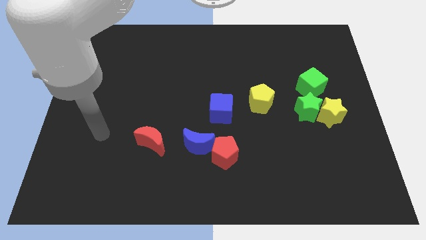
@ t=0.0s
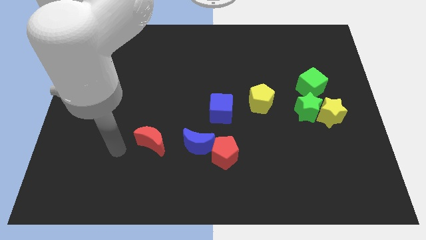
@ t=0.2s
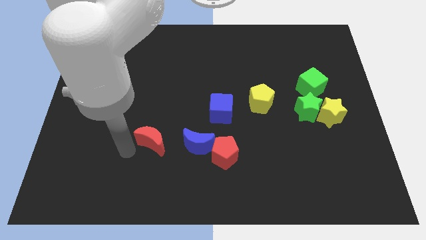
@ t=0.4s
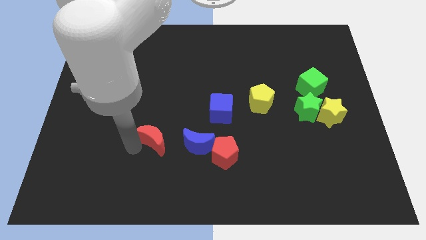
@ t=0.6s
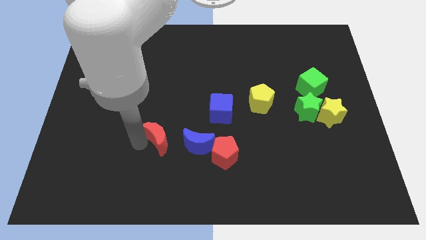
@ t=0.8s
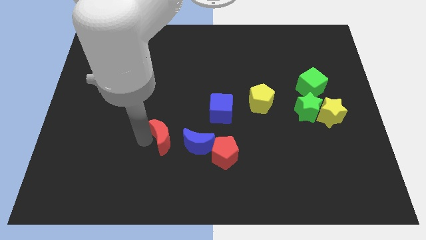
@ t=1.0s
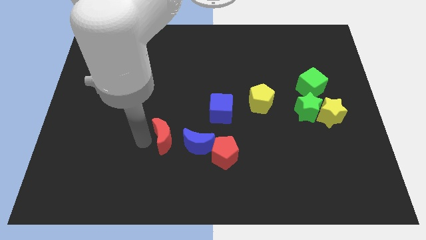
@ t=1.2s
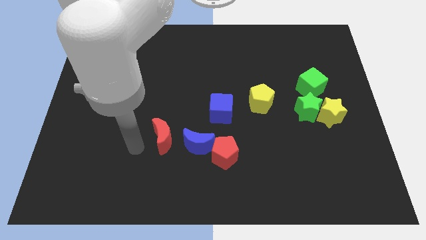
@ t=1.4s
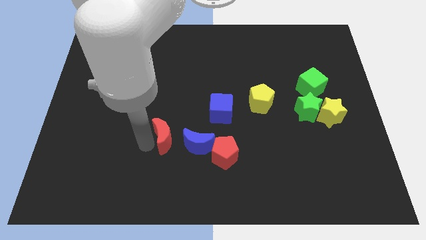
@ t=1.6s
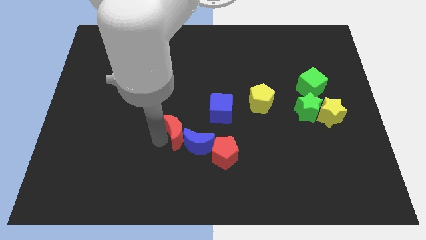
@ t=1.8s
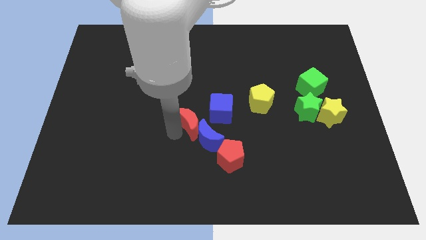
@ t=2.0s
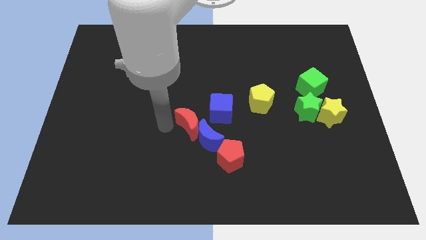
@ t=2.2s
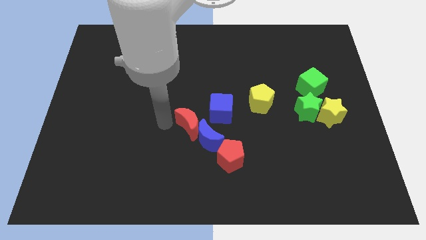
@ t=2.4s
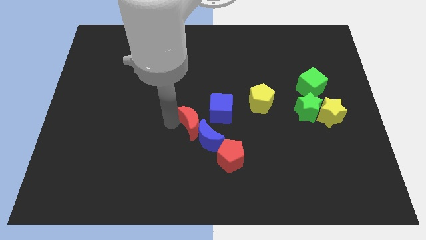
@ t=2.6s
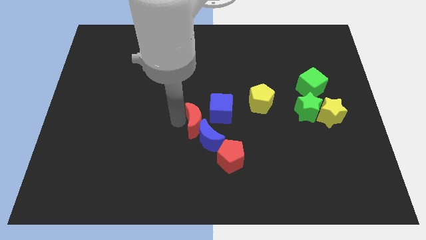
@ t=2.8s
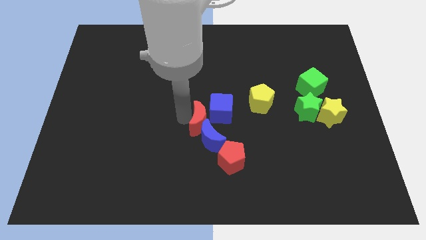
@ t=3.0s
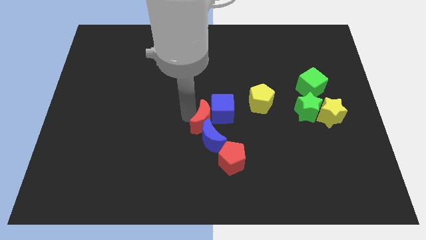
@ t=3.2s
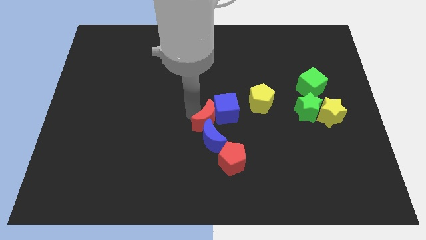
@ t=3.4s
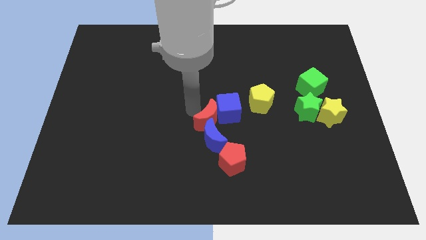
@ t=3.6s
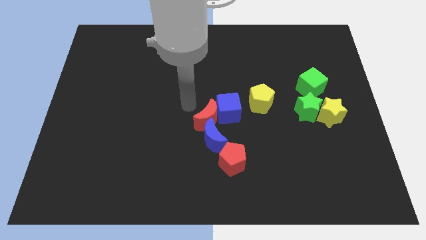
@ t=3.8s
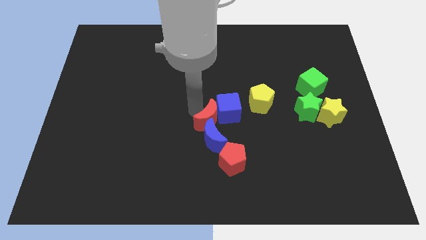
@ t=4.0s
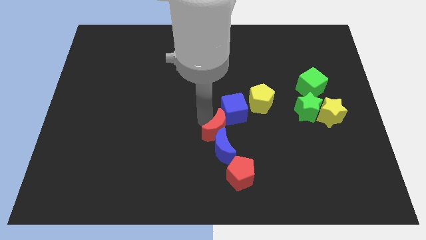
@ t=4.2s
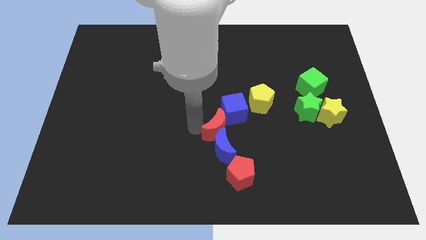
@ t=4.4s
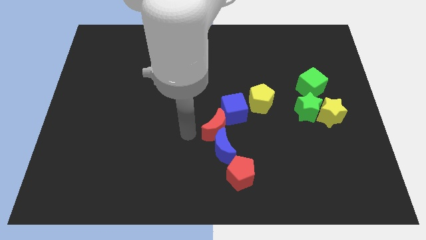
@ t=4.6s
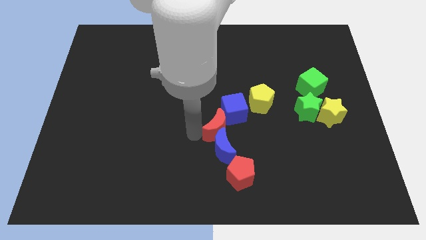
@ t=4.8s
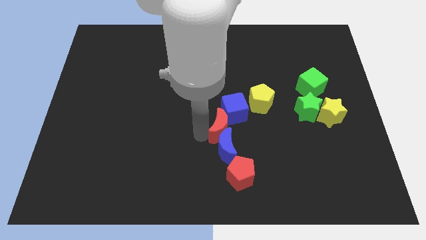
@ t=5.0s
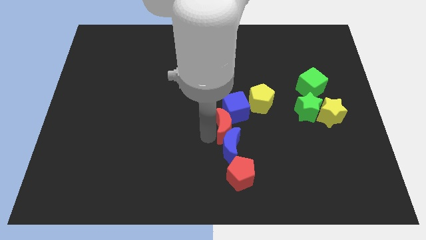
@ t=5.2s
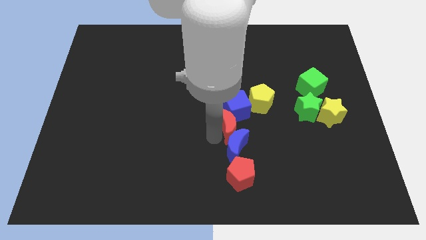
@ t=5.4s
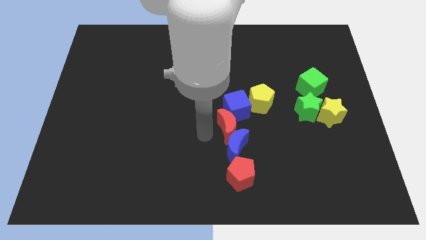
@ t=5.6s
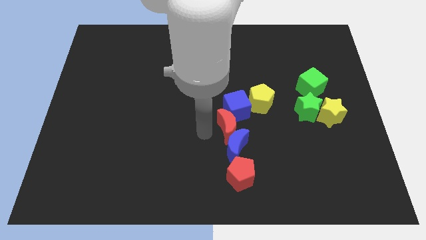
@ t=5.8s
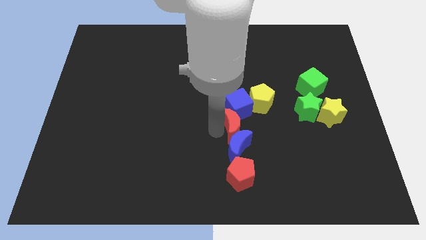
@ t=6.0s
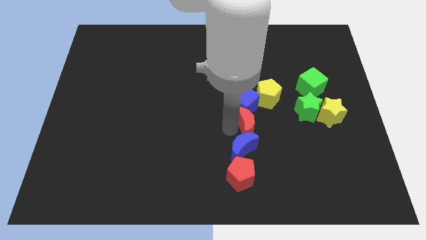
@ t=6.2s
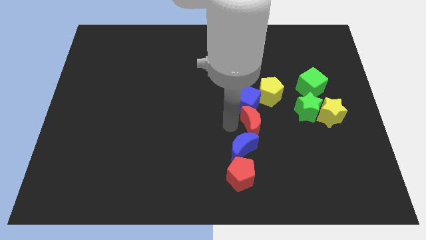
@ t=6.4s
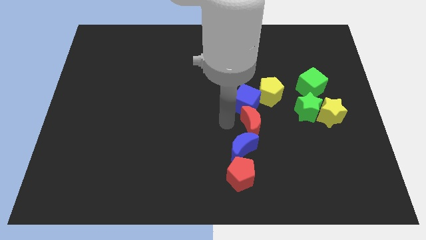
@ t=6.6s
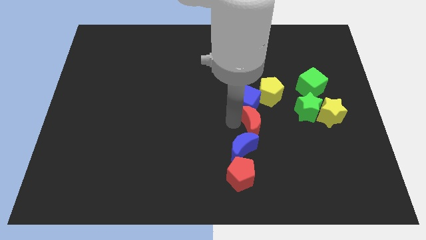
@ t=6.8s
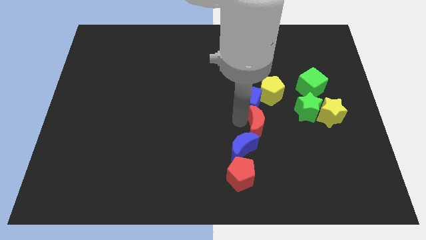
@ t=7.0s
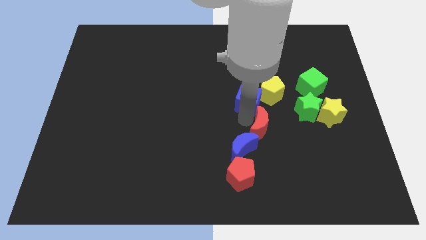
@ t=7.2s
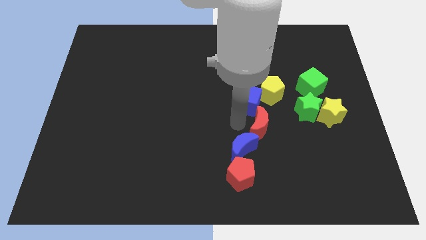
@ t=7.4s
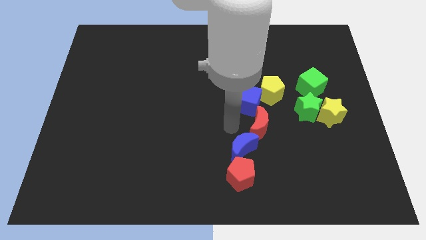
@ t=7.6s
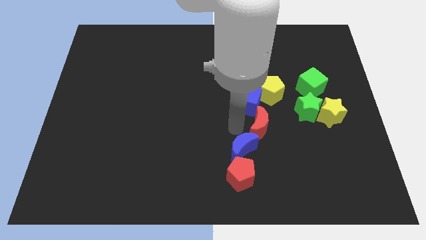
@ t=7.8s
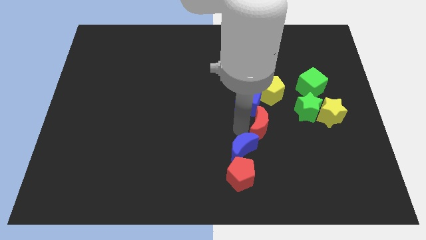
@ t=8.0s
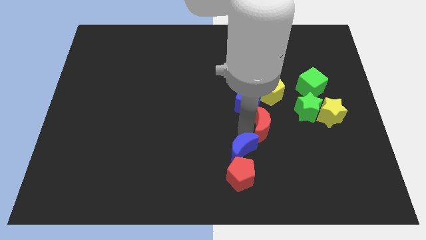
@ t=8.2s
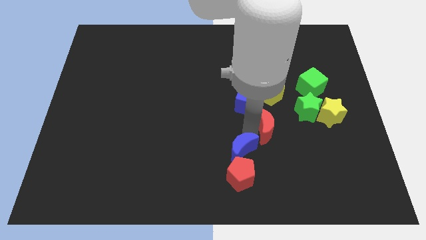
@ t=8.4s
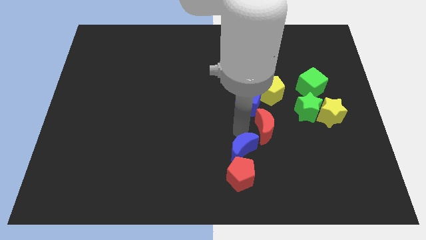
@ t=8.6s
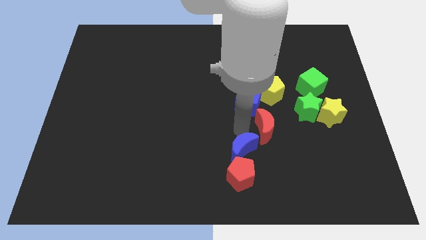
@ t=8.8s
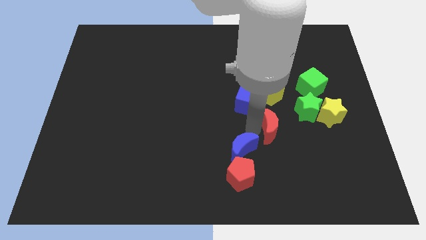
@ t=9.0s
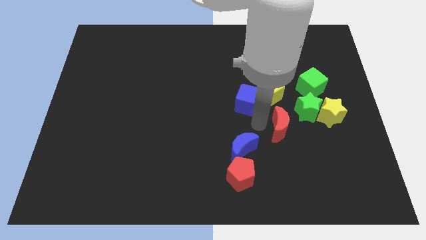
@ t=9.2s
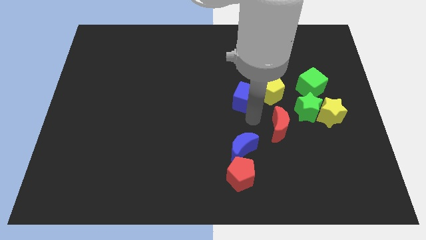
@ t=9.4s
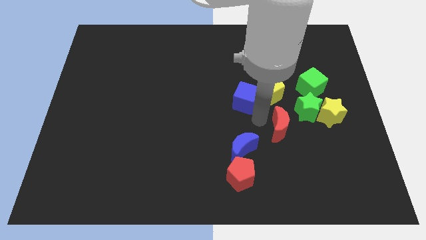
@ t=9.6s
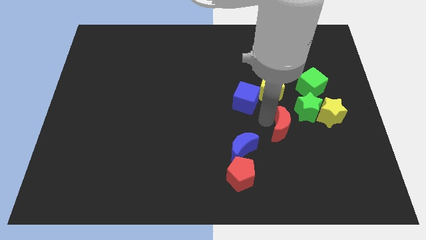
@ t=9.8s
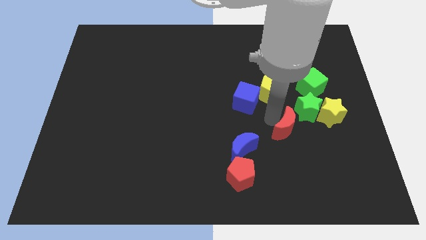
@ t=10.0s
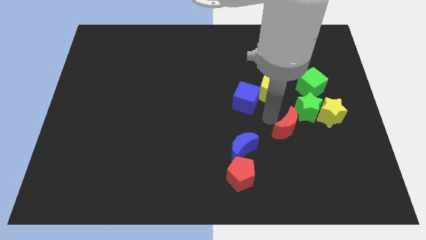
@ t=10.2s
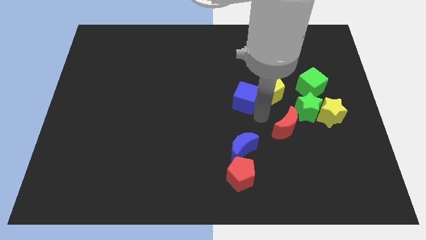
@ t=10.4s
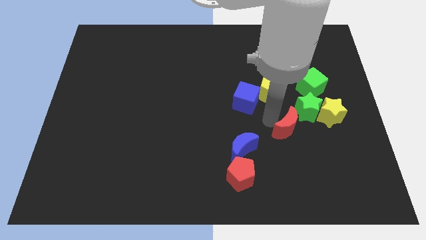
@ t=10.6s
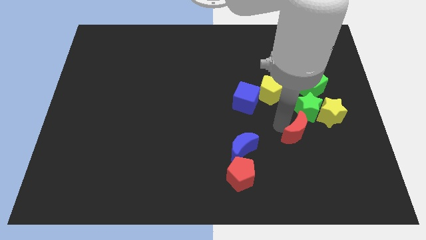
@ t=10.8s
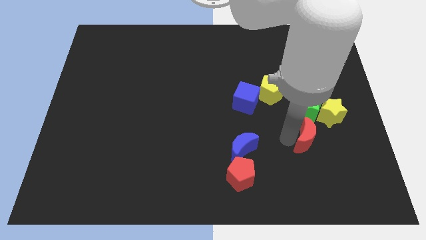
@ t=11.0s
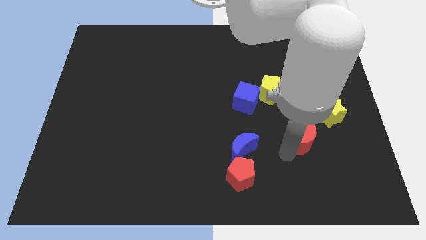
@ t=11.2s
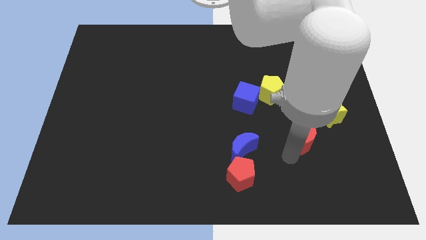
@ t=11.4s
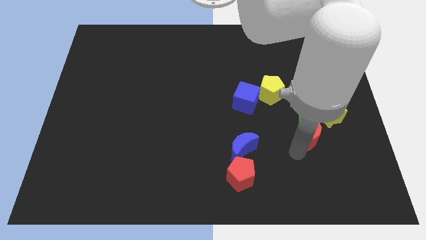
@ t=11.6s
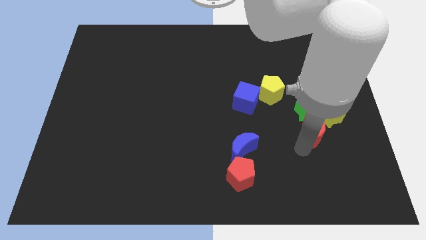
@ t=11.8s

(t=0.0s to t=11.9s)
slide the red moon close to the yellow star

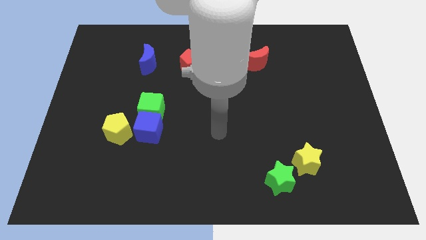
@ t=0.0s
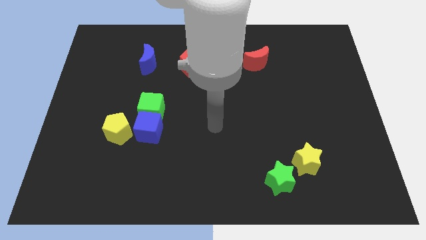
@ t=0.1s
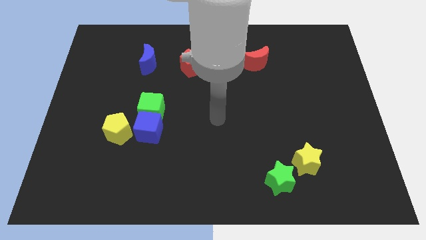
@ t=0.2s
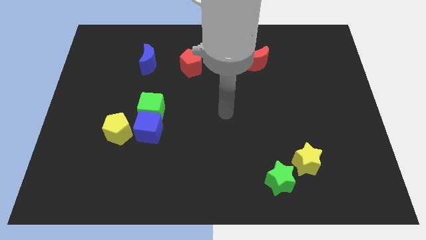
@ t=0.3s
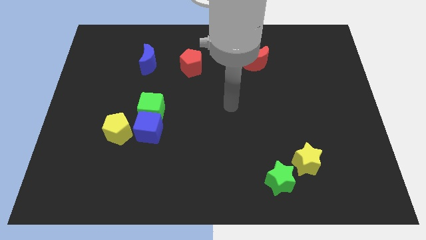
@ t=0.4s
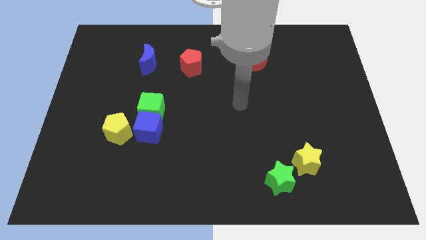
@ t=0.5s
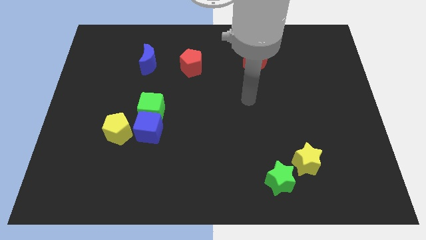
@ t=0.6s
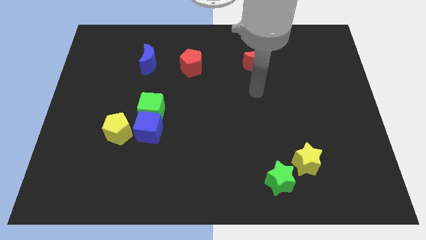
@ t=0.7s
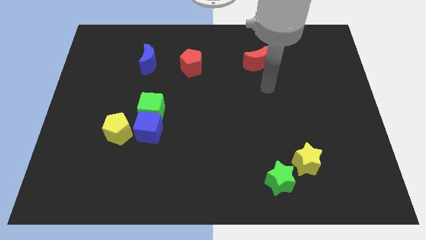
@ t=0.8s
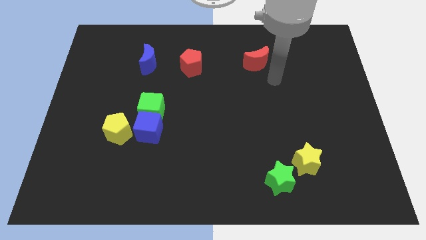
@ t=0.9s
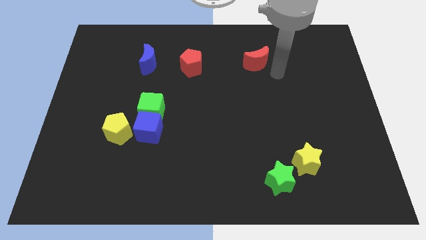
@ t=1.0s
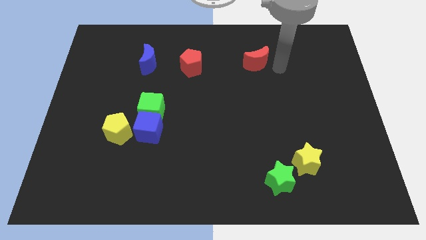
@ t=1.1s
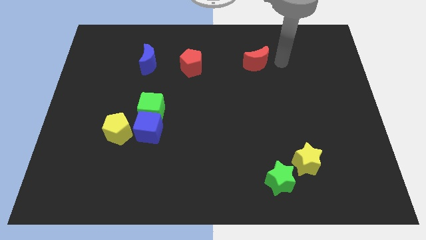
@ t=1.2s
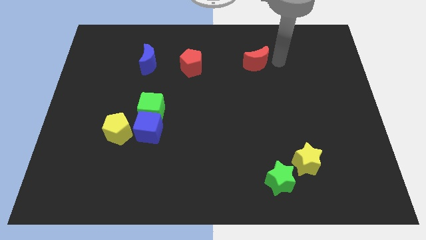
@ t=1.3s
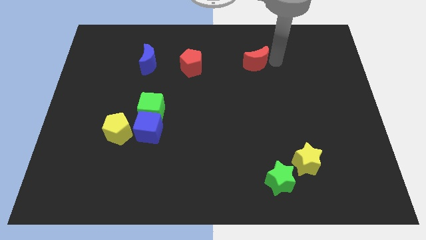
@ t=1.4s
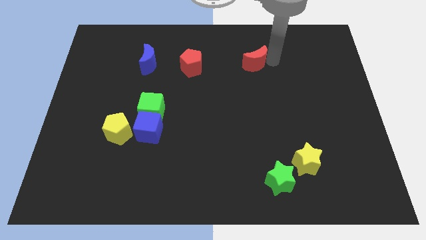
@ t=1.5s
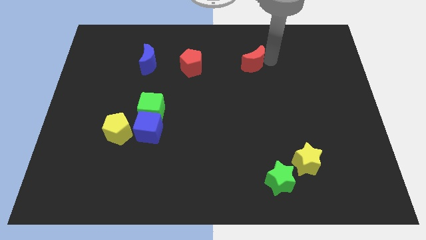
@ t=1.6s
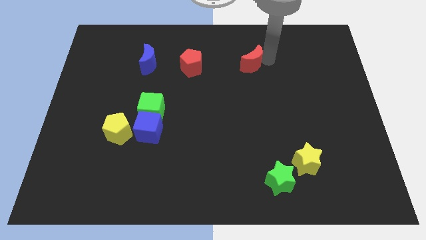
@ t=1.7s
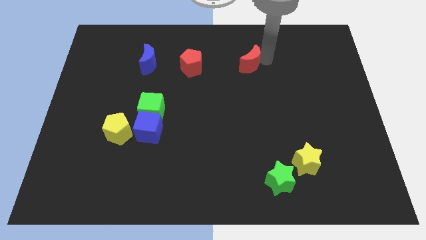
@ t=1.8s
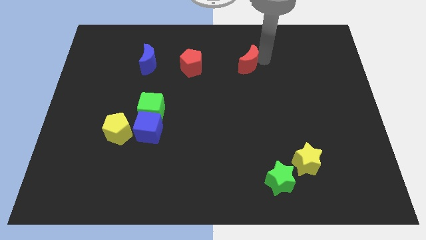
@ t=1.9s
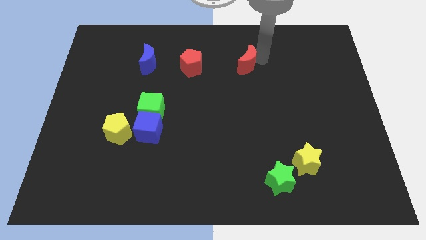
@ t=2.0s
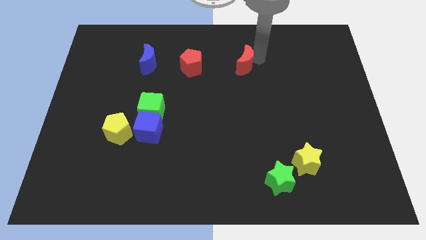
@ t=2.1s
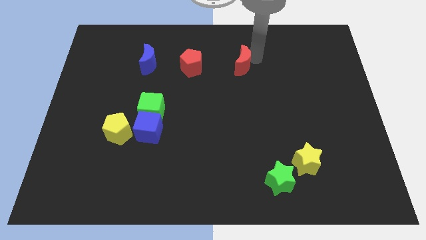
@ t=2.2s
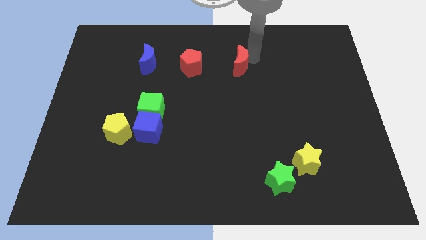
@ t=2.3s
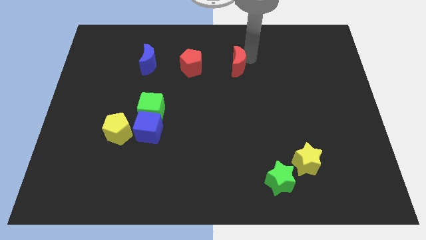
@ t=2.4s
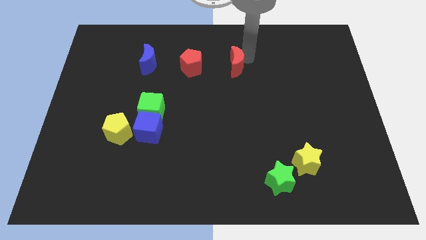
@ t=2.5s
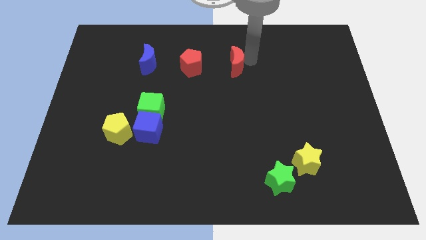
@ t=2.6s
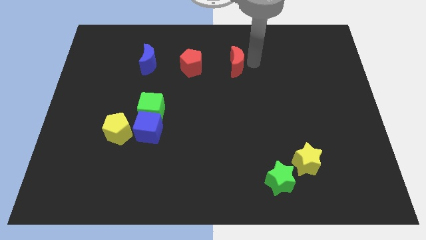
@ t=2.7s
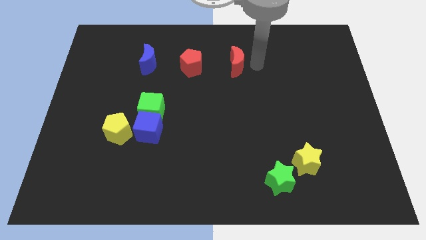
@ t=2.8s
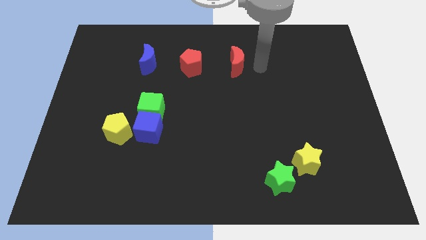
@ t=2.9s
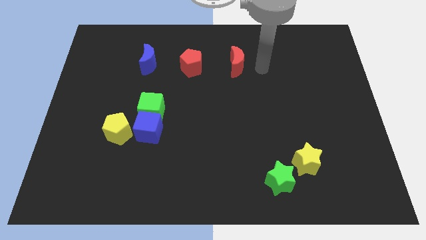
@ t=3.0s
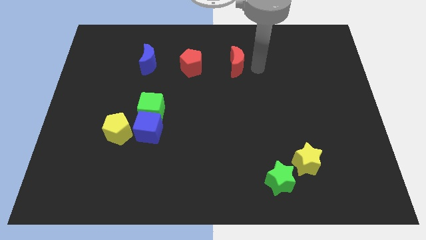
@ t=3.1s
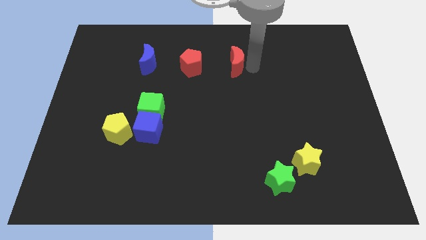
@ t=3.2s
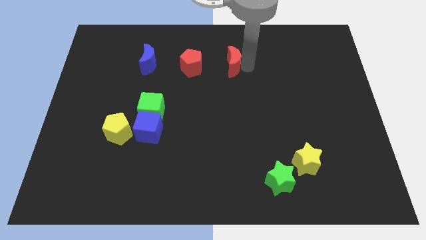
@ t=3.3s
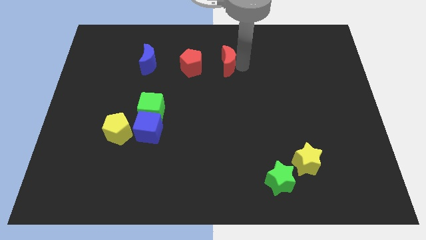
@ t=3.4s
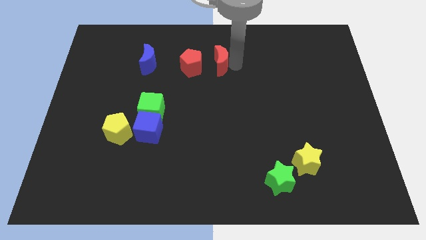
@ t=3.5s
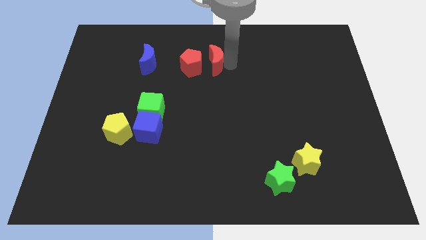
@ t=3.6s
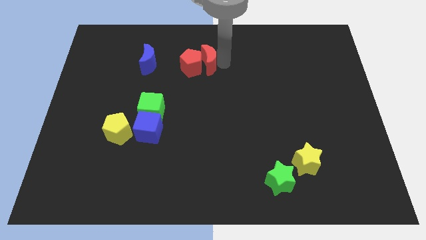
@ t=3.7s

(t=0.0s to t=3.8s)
push the red moon next to the red pentagon
